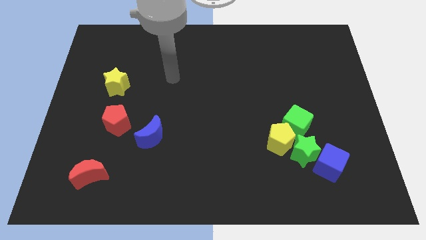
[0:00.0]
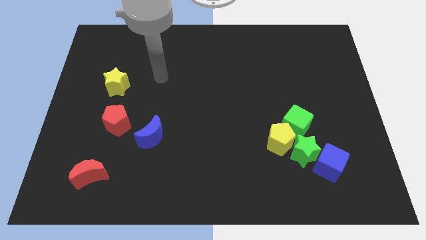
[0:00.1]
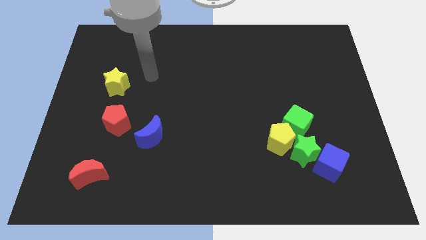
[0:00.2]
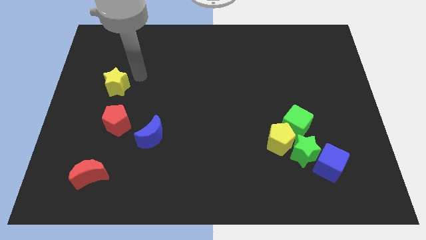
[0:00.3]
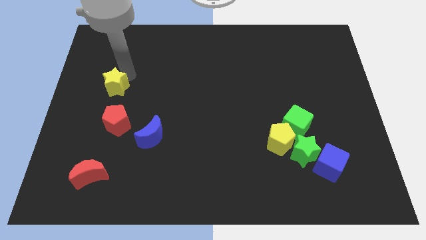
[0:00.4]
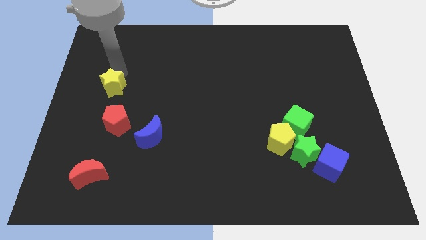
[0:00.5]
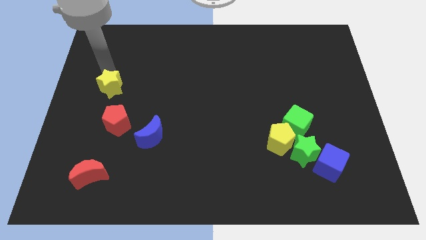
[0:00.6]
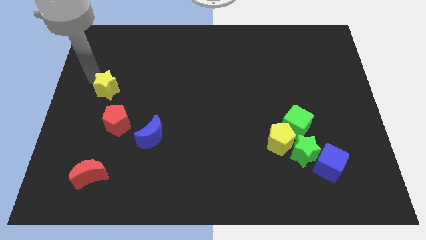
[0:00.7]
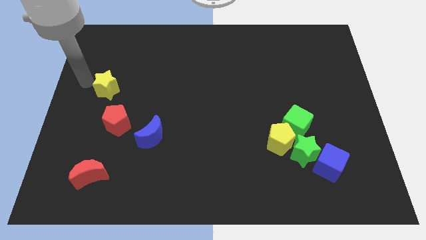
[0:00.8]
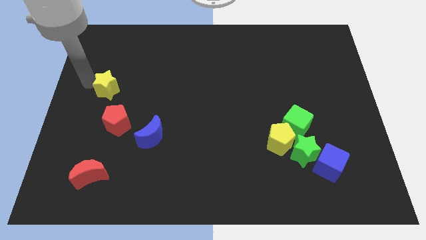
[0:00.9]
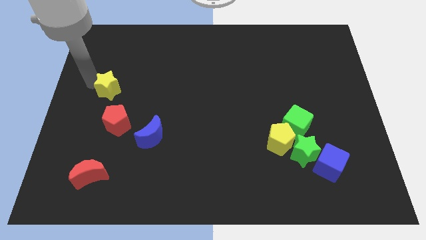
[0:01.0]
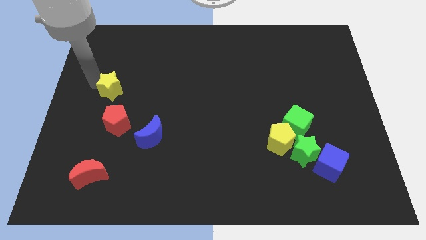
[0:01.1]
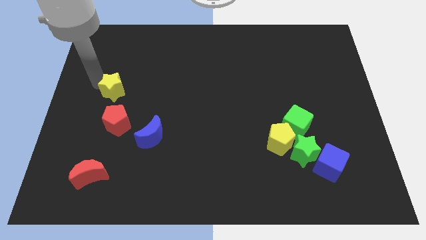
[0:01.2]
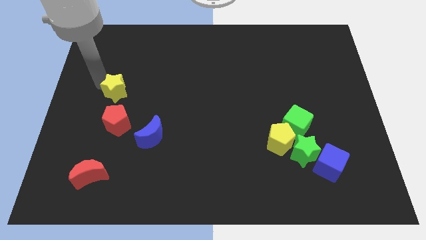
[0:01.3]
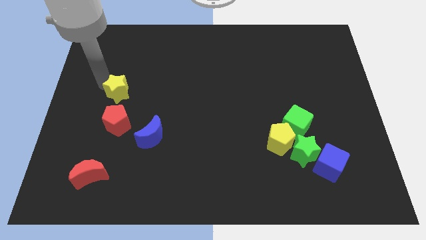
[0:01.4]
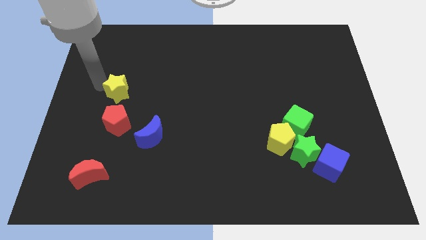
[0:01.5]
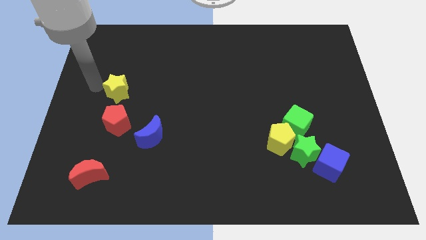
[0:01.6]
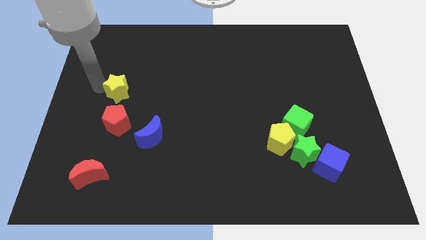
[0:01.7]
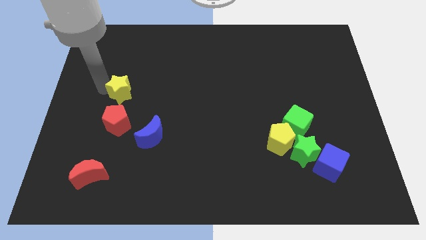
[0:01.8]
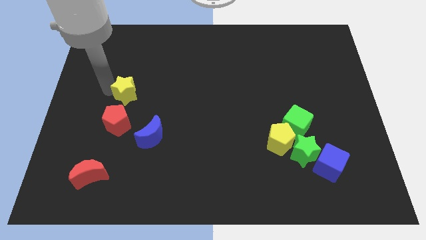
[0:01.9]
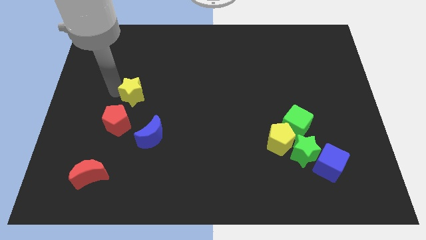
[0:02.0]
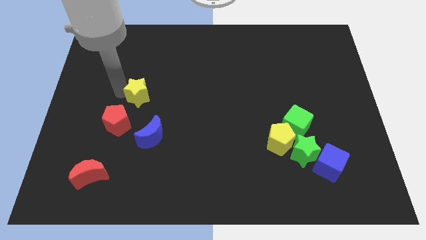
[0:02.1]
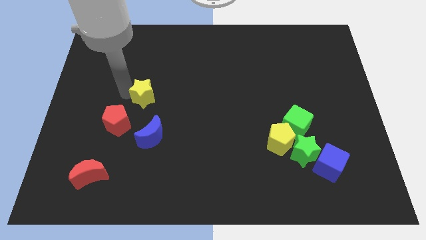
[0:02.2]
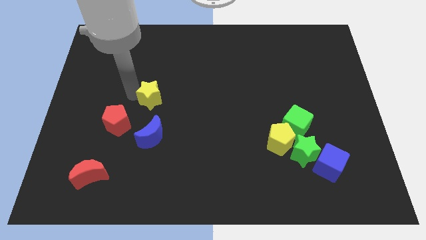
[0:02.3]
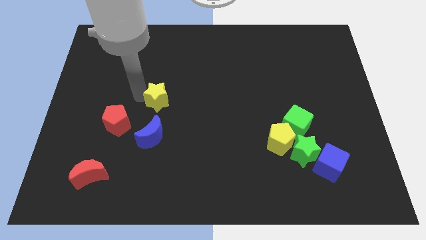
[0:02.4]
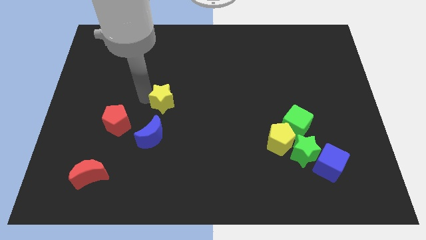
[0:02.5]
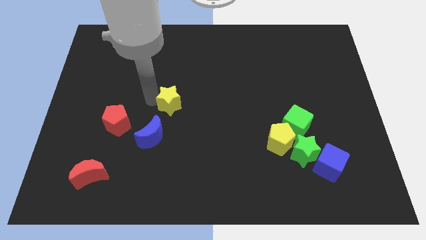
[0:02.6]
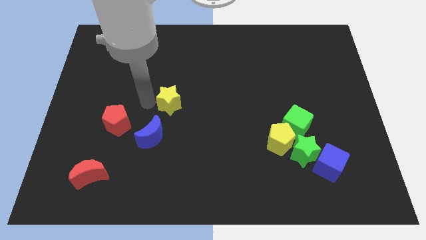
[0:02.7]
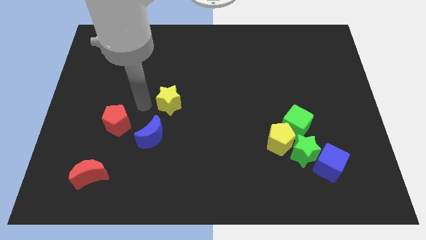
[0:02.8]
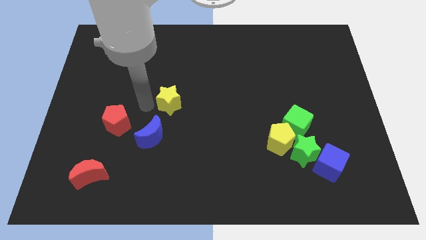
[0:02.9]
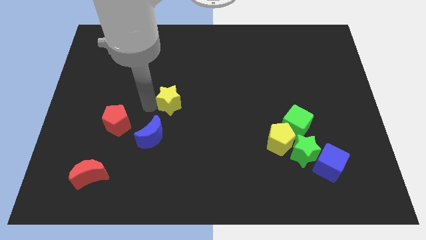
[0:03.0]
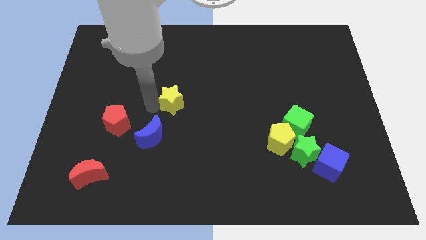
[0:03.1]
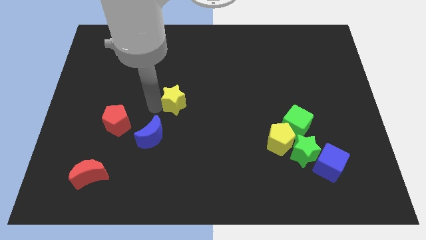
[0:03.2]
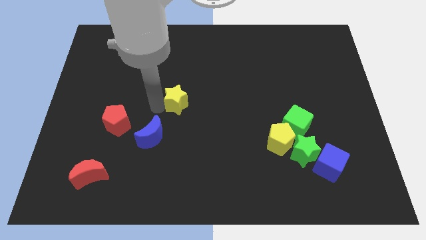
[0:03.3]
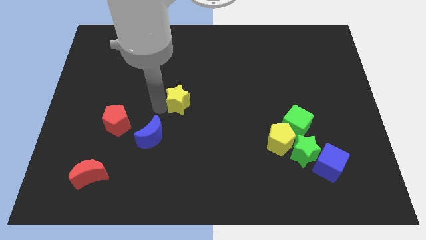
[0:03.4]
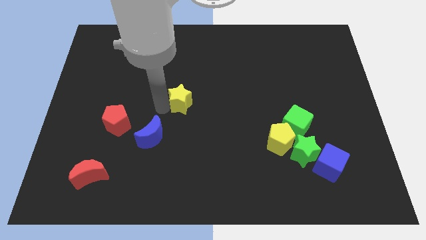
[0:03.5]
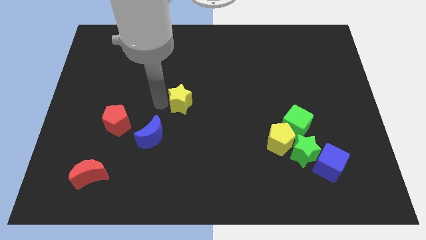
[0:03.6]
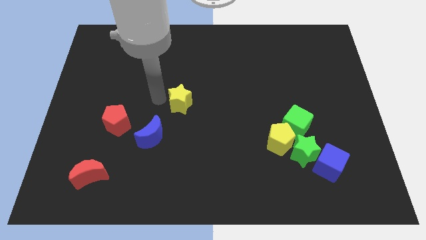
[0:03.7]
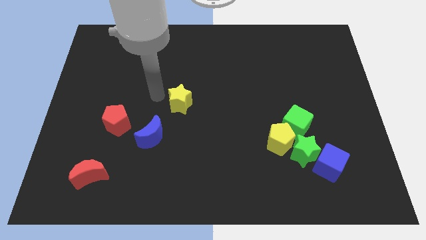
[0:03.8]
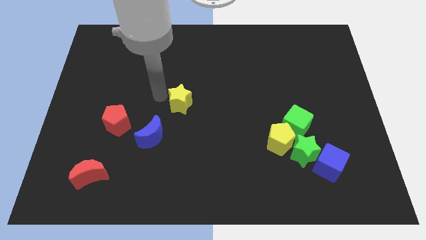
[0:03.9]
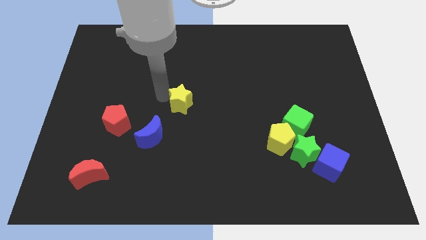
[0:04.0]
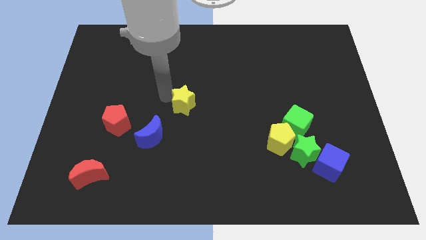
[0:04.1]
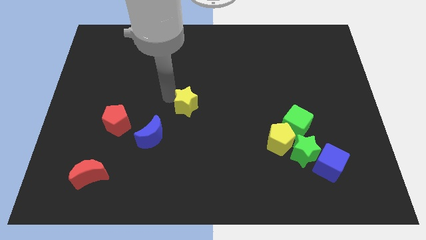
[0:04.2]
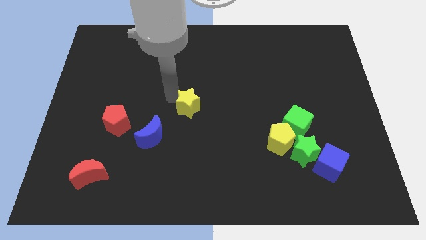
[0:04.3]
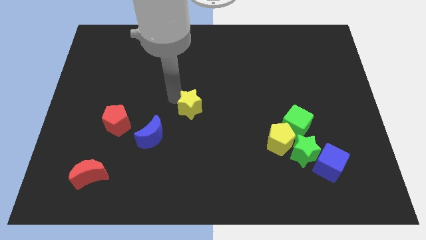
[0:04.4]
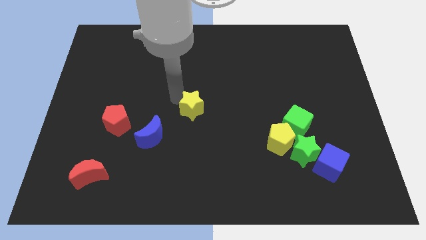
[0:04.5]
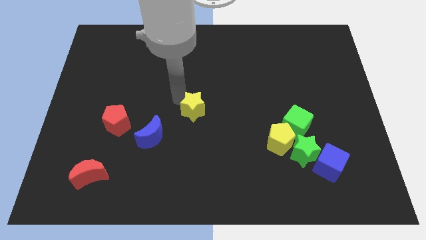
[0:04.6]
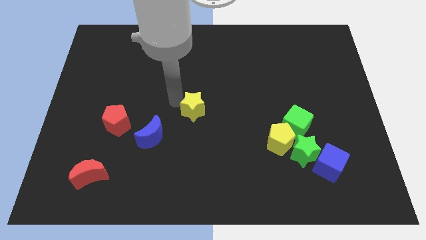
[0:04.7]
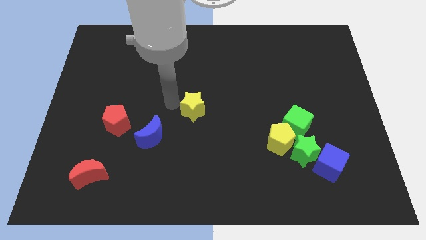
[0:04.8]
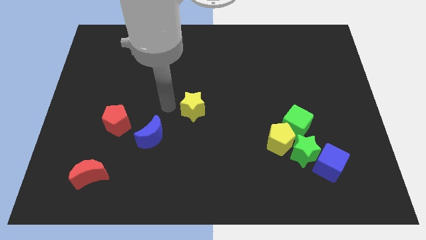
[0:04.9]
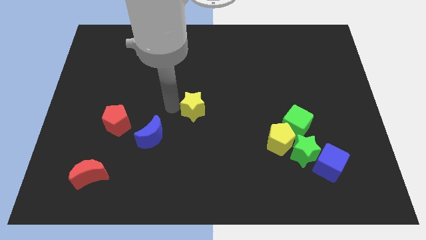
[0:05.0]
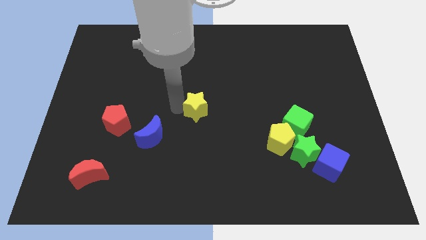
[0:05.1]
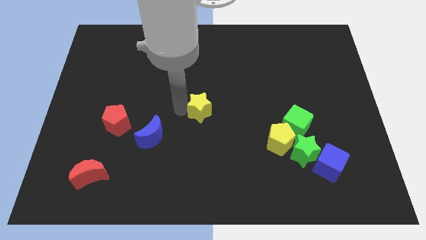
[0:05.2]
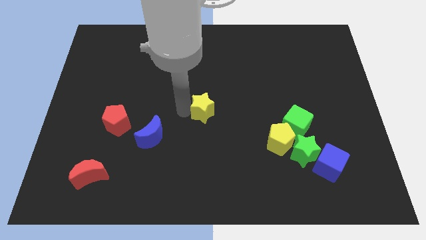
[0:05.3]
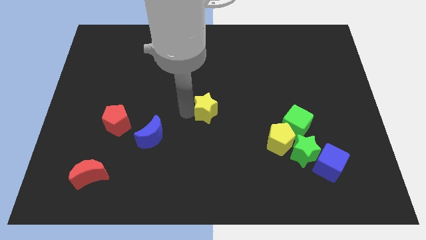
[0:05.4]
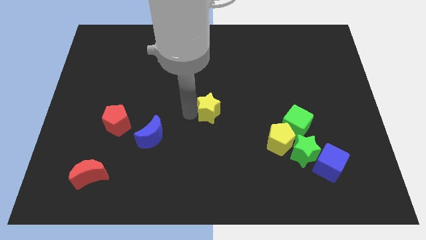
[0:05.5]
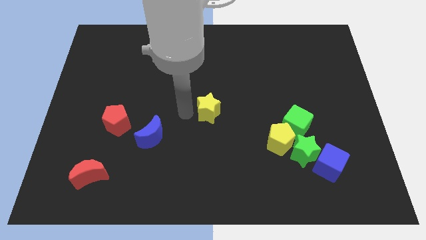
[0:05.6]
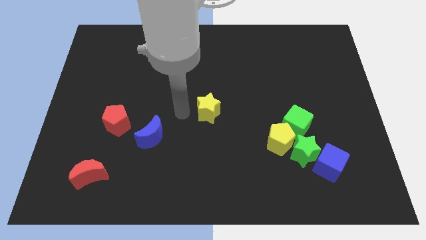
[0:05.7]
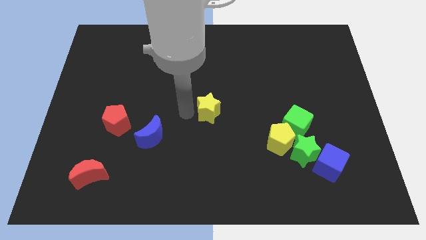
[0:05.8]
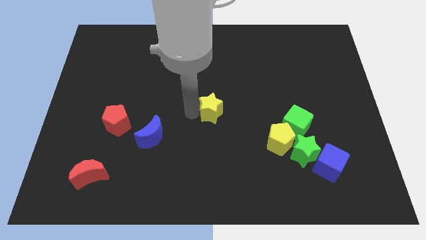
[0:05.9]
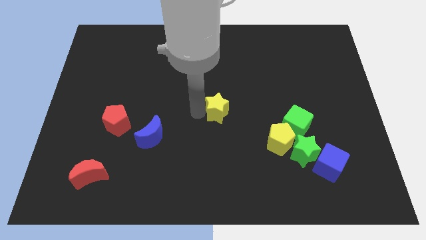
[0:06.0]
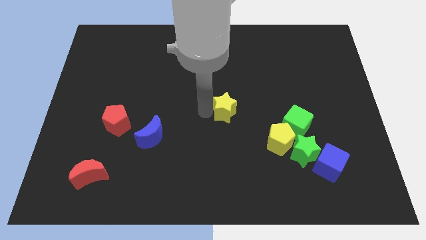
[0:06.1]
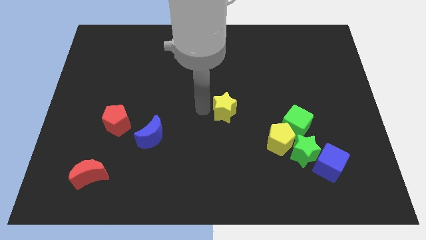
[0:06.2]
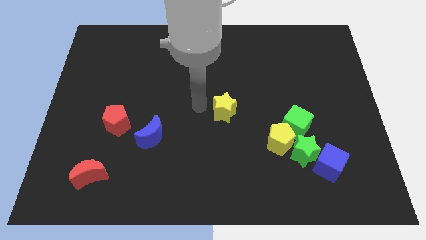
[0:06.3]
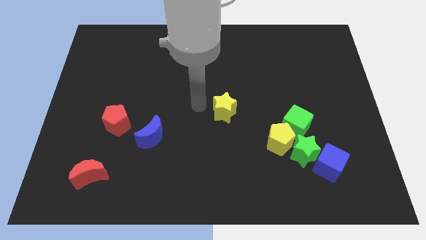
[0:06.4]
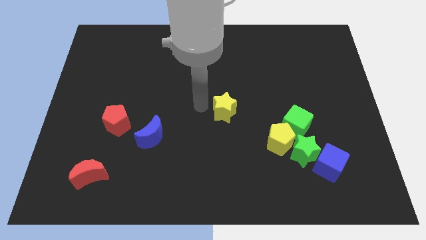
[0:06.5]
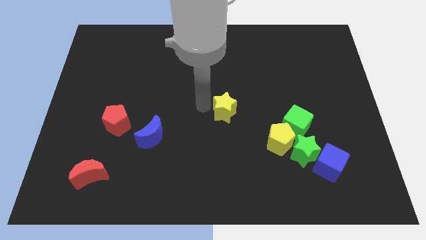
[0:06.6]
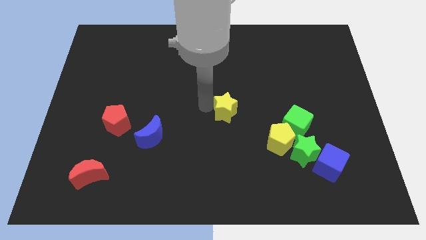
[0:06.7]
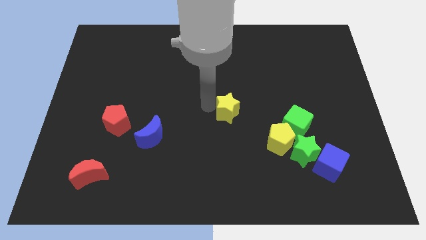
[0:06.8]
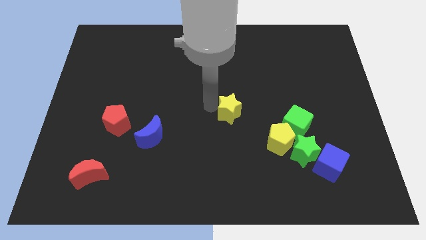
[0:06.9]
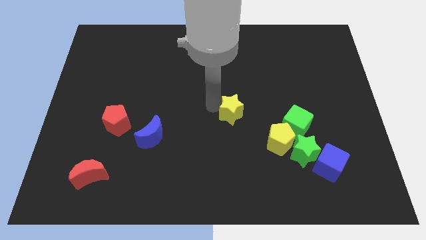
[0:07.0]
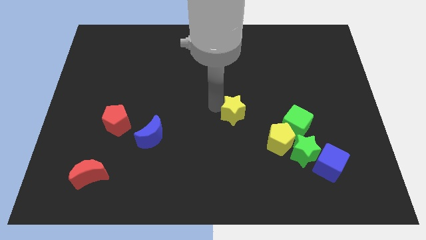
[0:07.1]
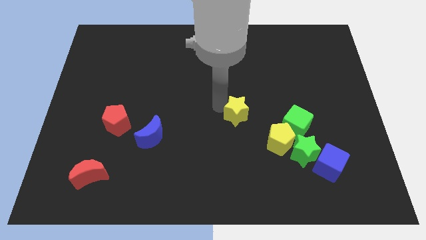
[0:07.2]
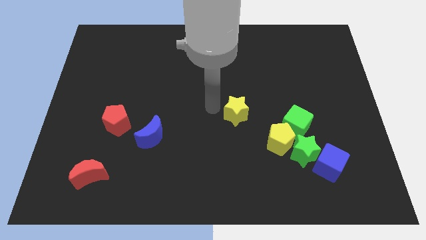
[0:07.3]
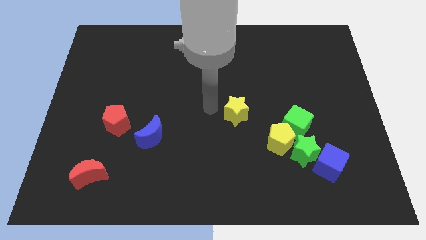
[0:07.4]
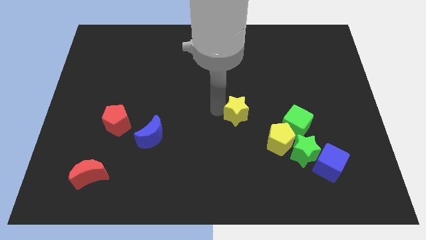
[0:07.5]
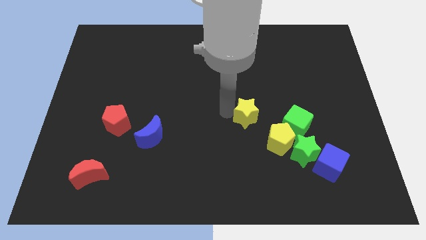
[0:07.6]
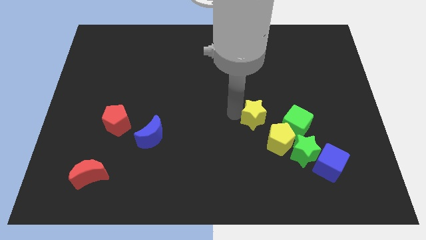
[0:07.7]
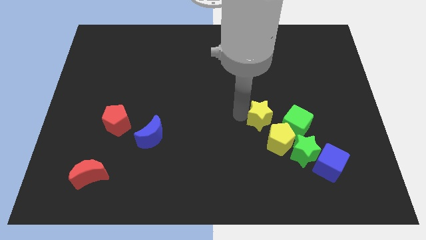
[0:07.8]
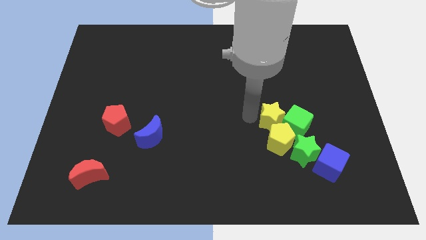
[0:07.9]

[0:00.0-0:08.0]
slide the yellow star next to the green cube
